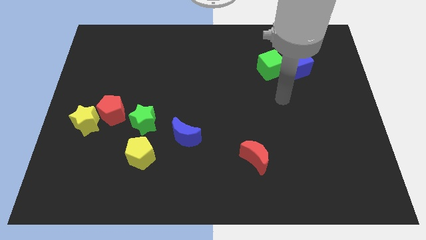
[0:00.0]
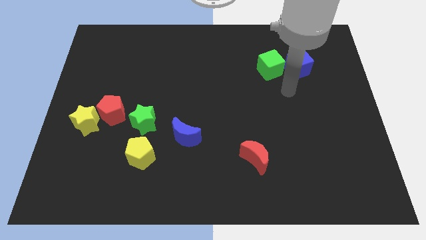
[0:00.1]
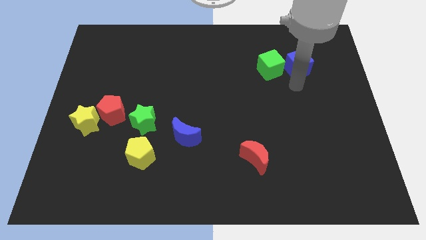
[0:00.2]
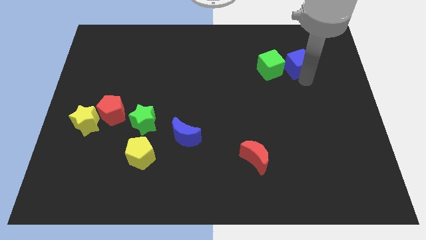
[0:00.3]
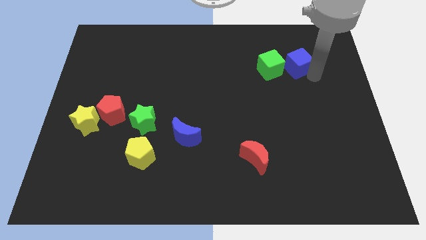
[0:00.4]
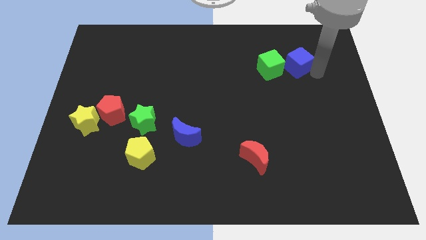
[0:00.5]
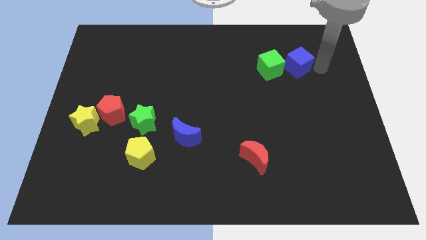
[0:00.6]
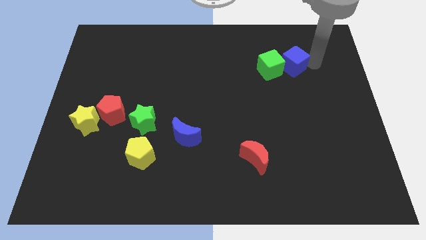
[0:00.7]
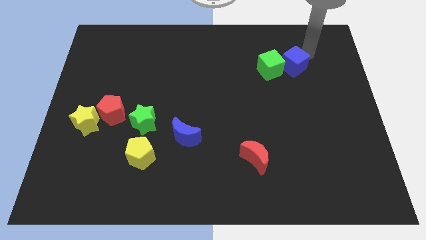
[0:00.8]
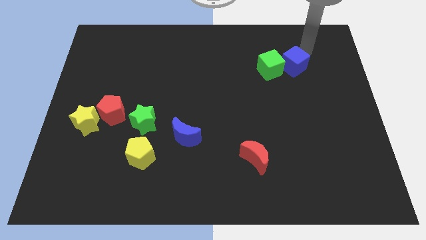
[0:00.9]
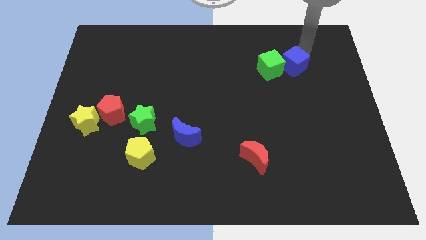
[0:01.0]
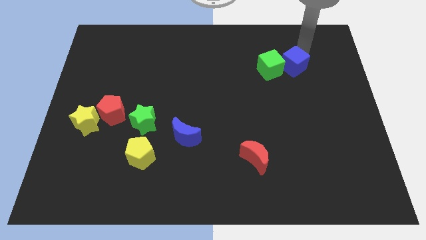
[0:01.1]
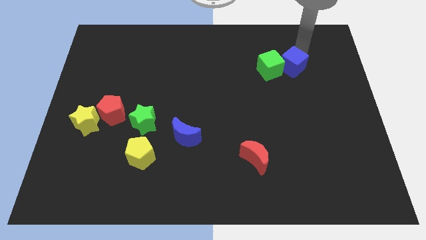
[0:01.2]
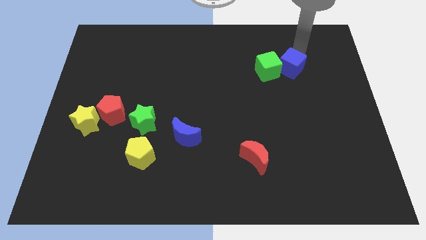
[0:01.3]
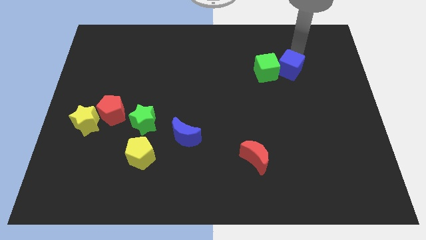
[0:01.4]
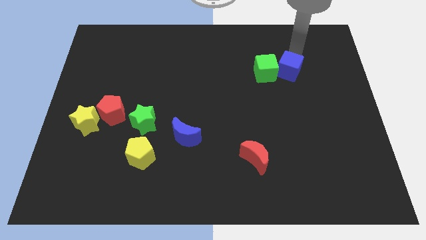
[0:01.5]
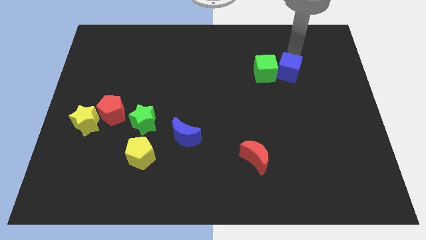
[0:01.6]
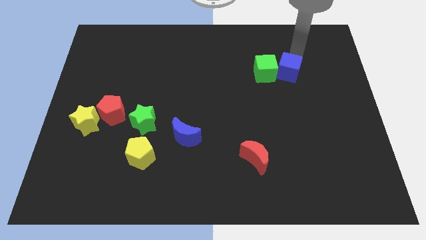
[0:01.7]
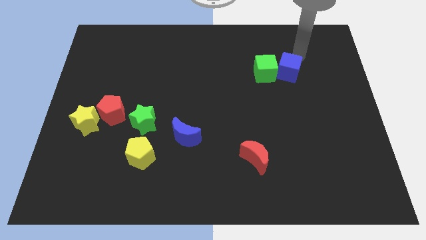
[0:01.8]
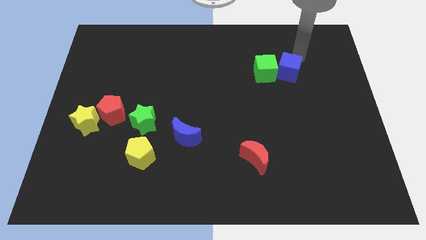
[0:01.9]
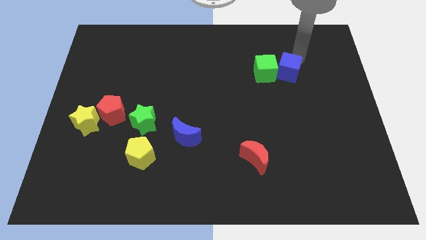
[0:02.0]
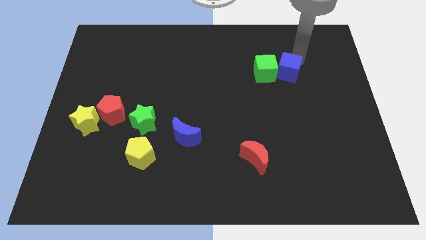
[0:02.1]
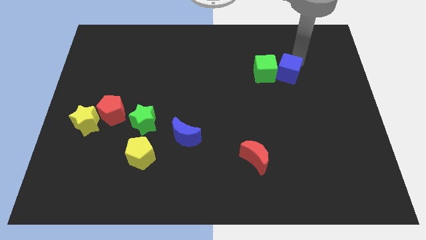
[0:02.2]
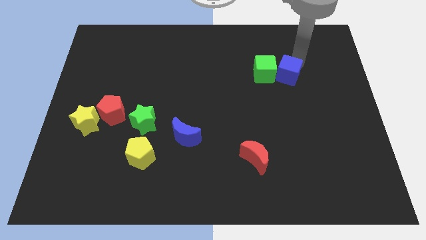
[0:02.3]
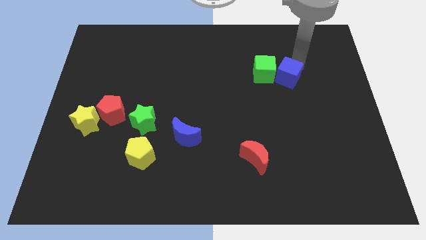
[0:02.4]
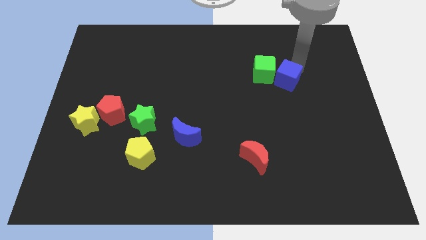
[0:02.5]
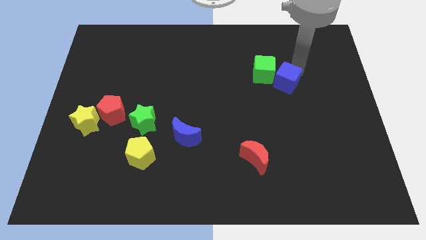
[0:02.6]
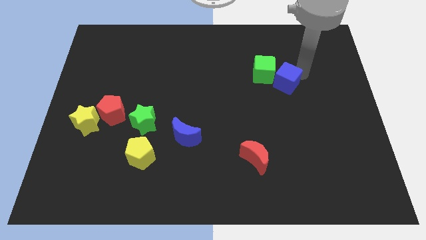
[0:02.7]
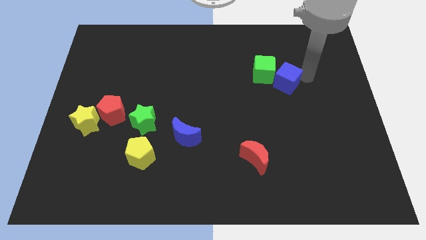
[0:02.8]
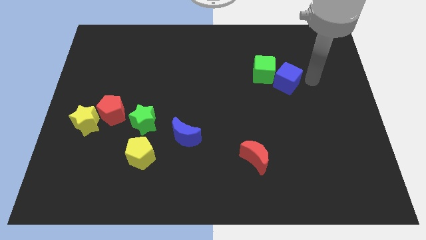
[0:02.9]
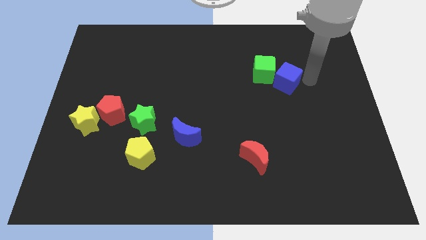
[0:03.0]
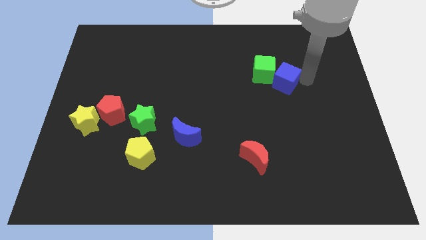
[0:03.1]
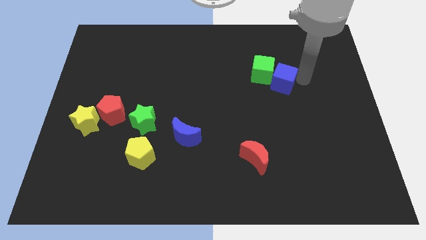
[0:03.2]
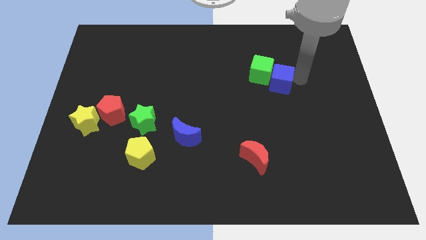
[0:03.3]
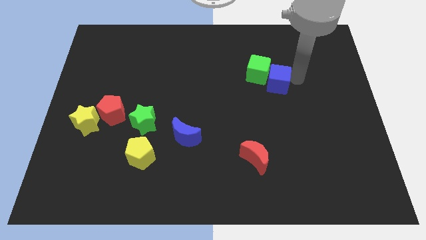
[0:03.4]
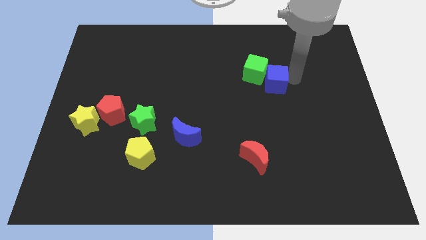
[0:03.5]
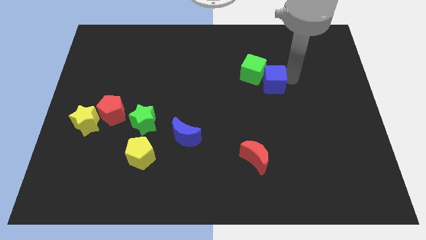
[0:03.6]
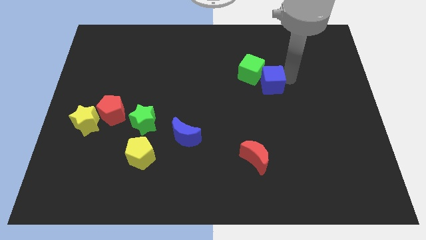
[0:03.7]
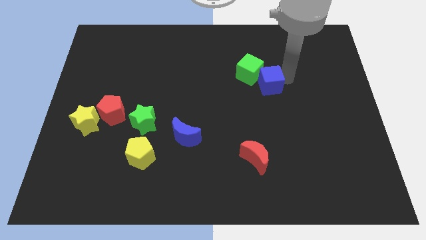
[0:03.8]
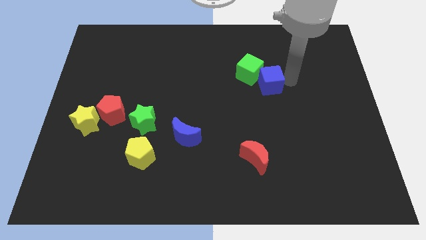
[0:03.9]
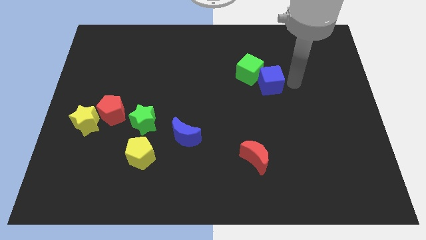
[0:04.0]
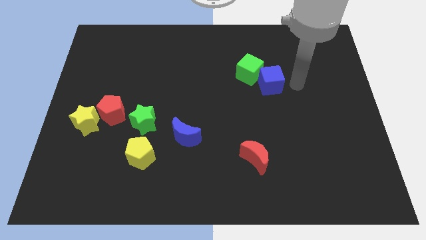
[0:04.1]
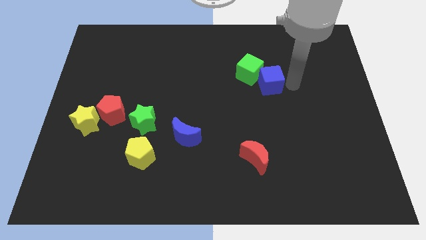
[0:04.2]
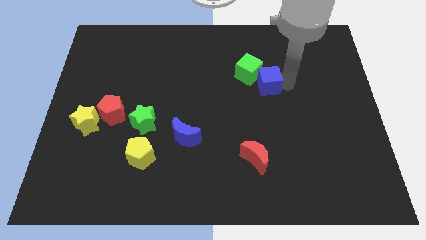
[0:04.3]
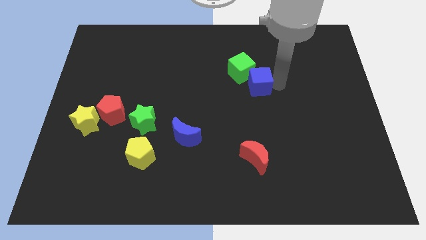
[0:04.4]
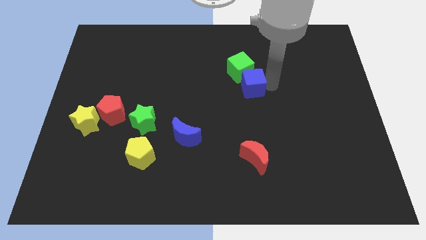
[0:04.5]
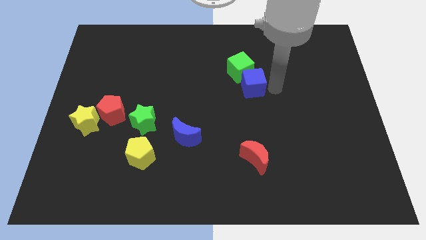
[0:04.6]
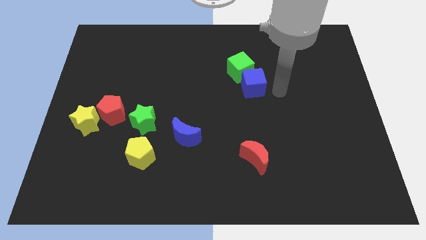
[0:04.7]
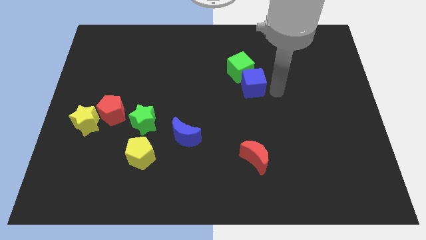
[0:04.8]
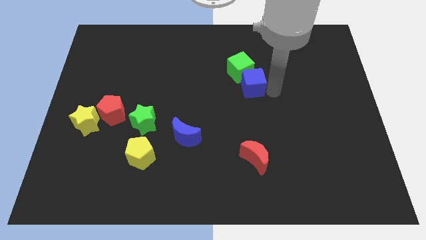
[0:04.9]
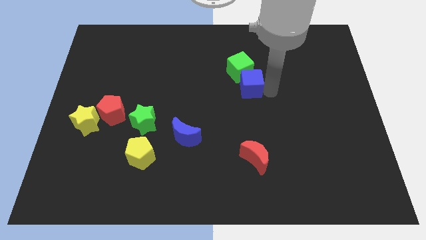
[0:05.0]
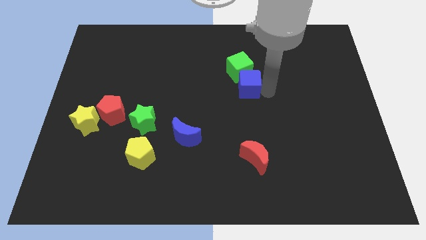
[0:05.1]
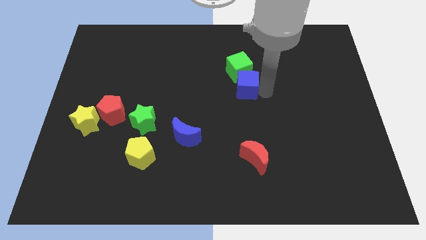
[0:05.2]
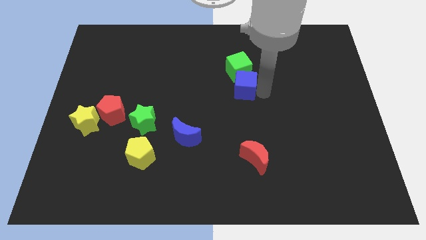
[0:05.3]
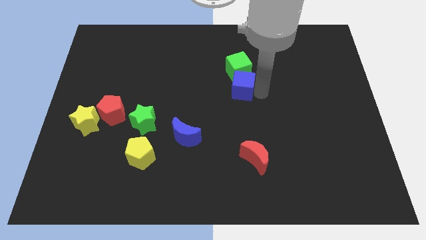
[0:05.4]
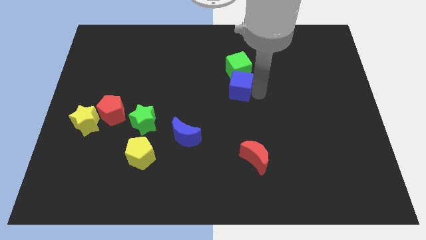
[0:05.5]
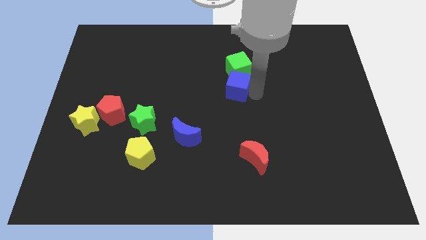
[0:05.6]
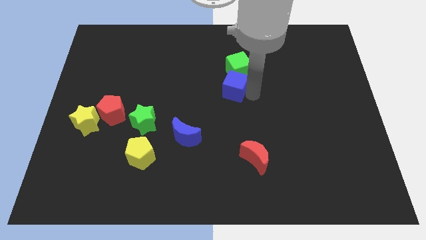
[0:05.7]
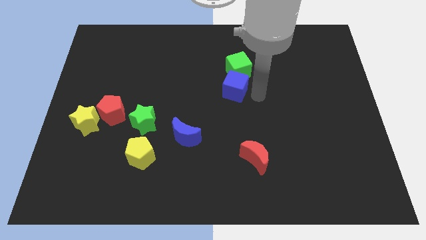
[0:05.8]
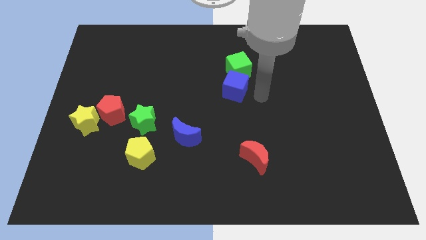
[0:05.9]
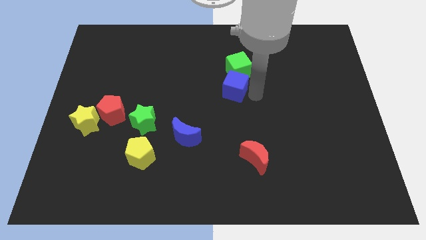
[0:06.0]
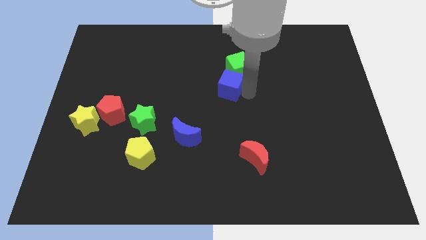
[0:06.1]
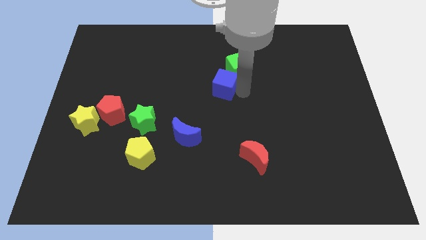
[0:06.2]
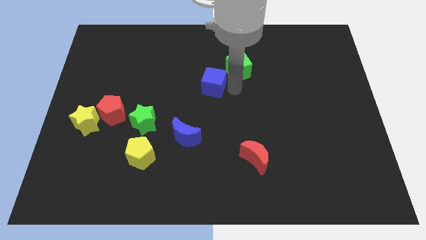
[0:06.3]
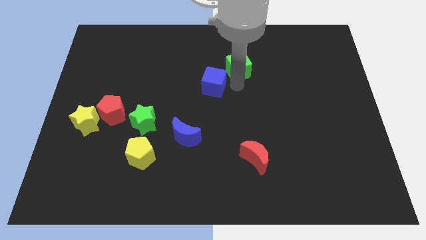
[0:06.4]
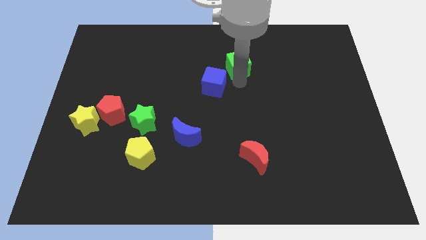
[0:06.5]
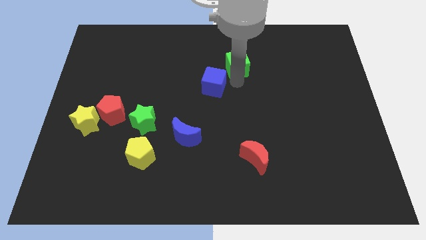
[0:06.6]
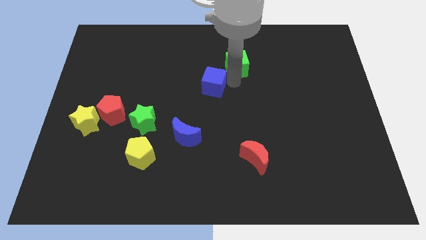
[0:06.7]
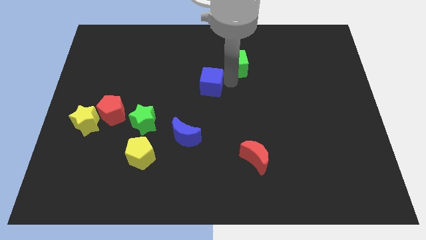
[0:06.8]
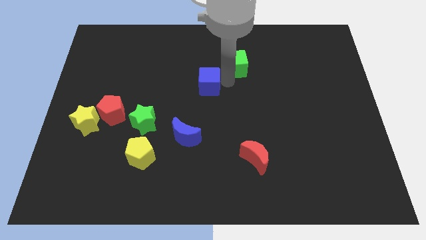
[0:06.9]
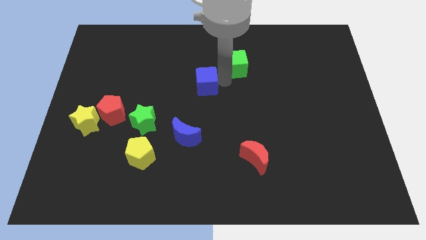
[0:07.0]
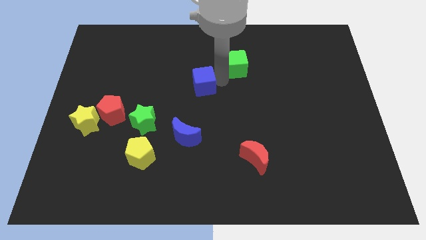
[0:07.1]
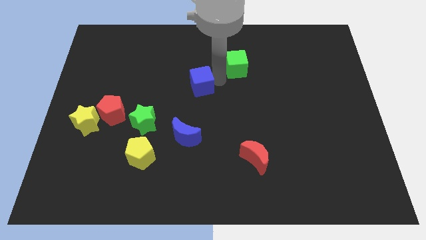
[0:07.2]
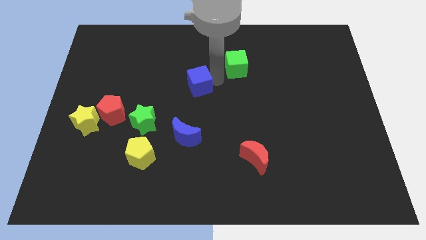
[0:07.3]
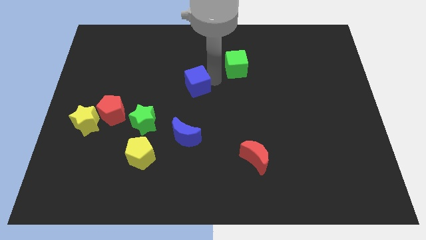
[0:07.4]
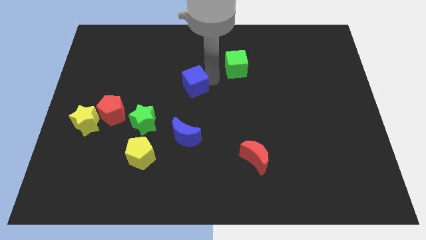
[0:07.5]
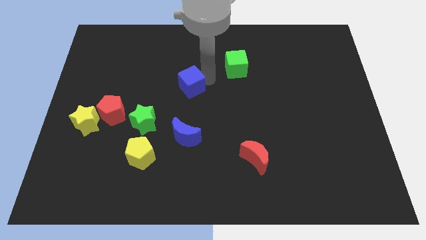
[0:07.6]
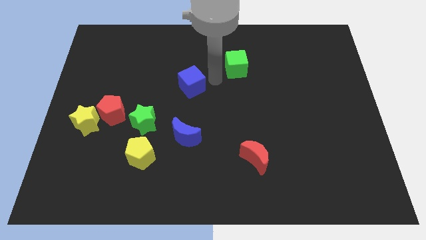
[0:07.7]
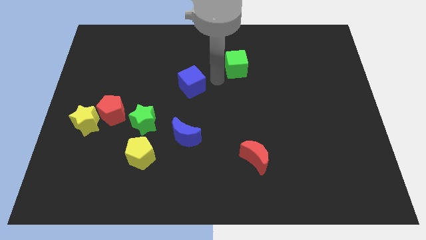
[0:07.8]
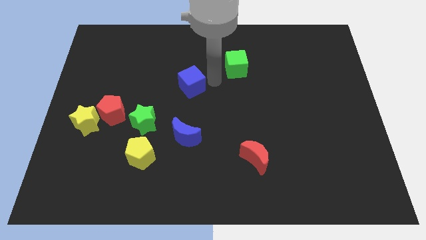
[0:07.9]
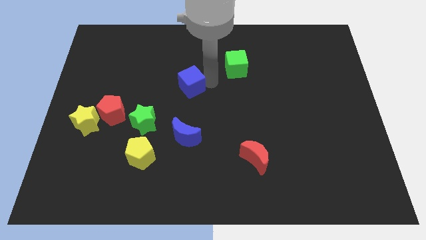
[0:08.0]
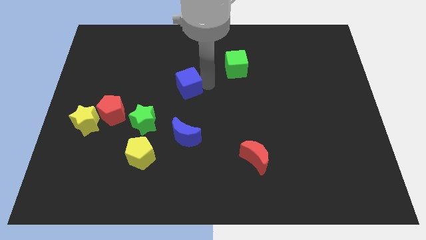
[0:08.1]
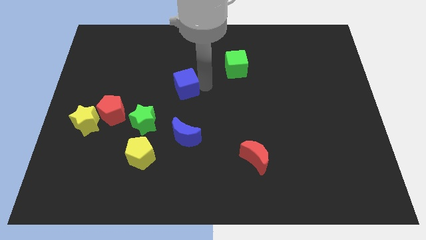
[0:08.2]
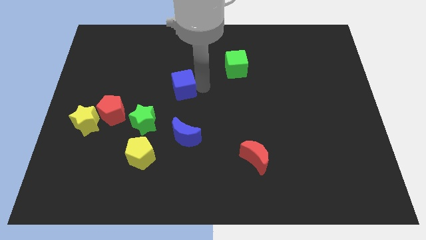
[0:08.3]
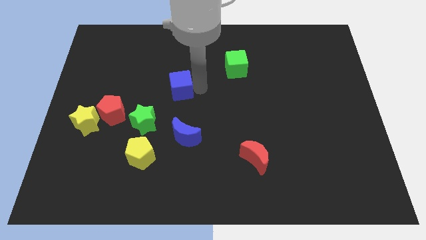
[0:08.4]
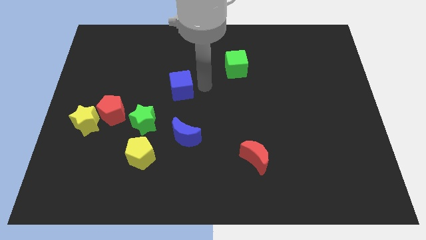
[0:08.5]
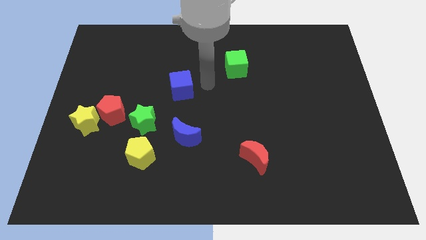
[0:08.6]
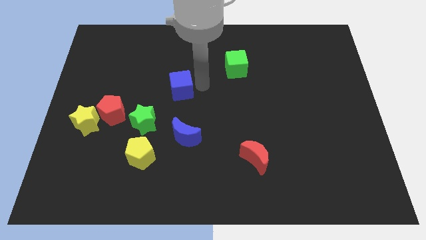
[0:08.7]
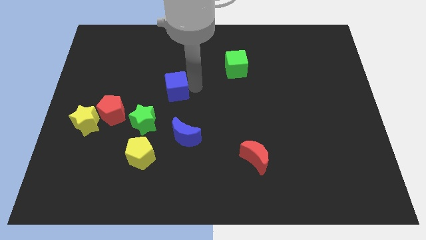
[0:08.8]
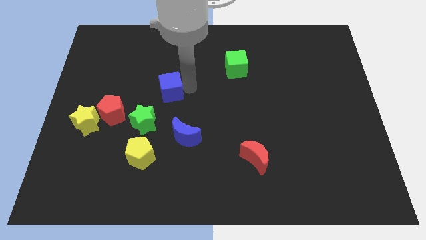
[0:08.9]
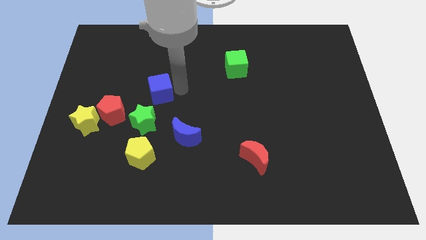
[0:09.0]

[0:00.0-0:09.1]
put the blue cube diagonally up and to the right of the red pentagon
